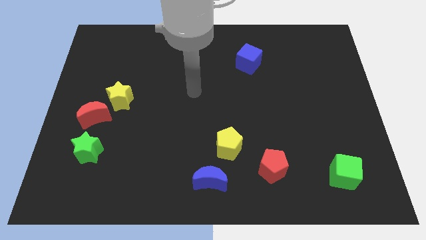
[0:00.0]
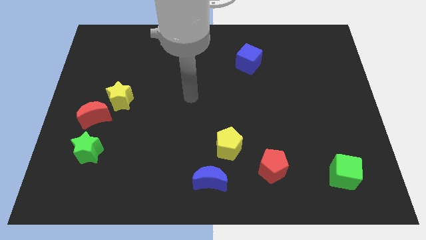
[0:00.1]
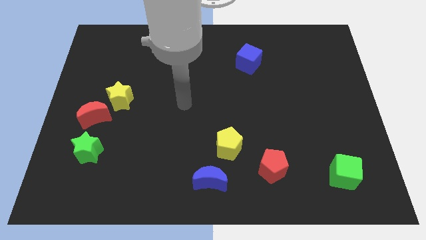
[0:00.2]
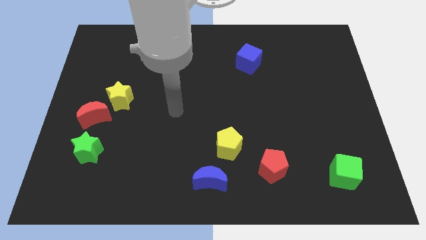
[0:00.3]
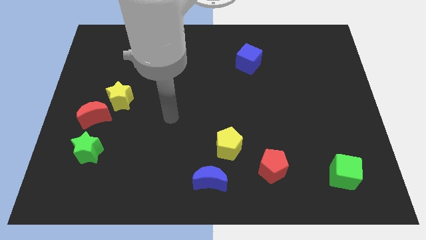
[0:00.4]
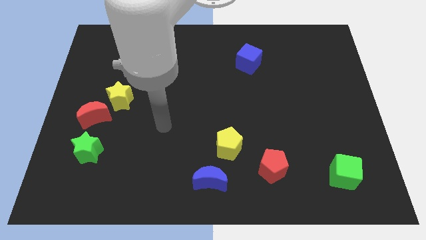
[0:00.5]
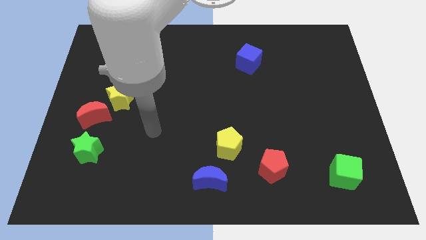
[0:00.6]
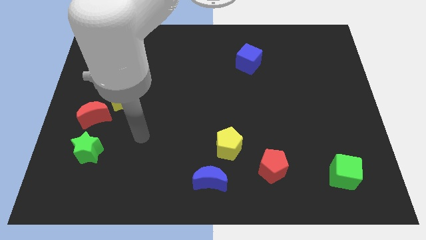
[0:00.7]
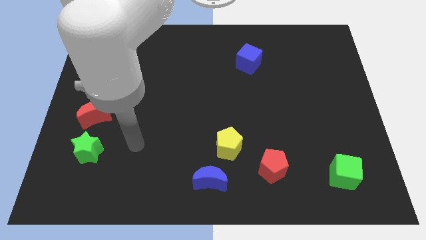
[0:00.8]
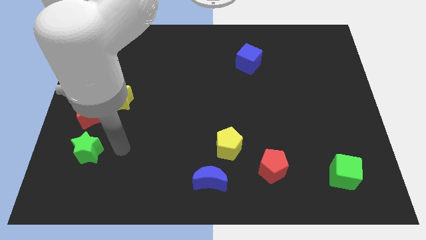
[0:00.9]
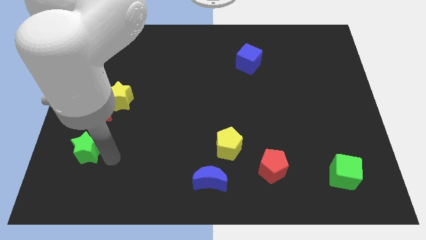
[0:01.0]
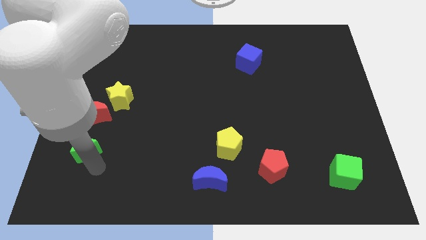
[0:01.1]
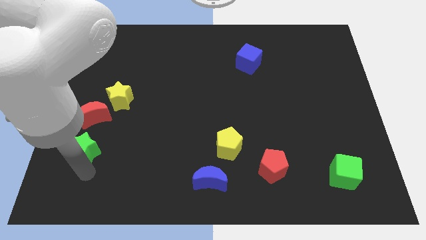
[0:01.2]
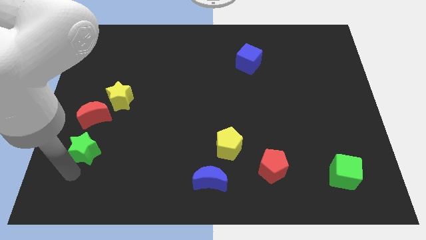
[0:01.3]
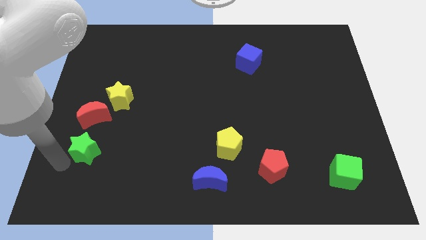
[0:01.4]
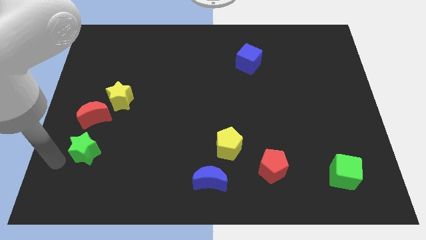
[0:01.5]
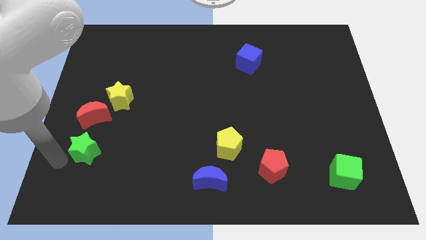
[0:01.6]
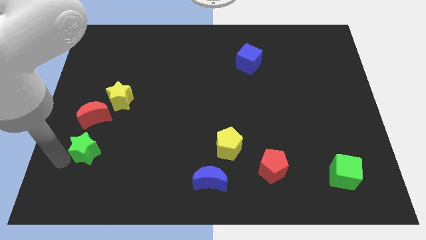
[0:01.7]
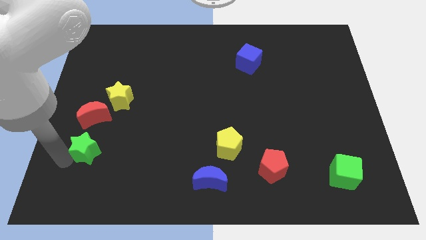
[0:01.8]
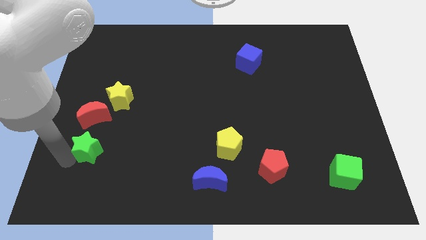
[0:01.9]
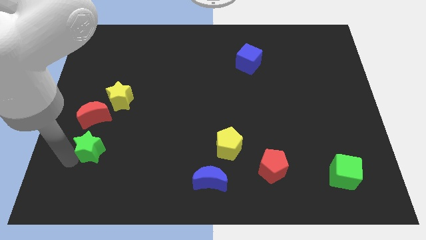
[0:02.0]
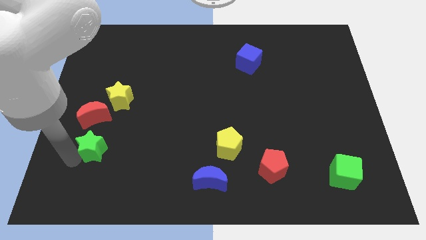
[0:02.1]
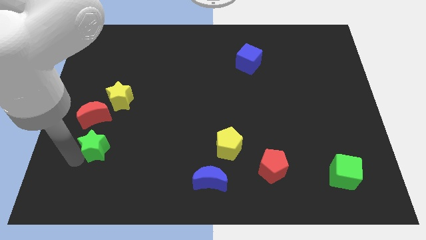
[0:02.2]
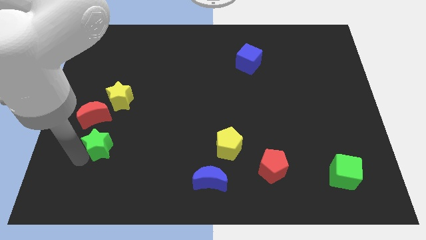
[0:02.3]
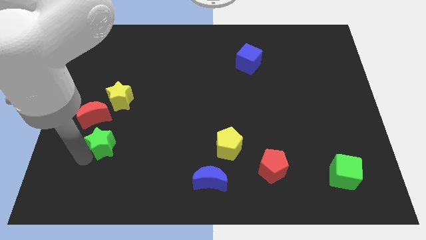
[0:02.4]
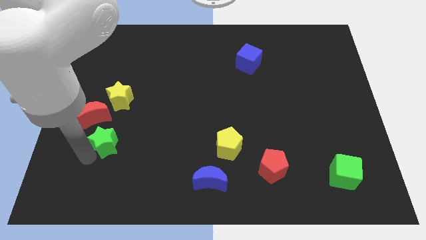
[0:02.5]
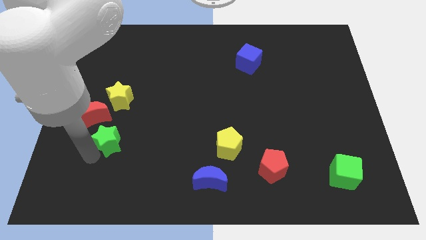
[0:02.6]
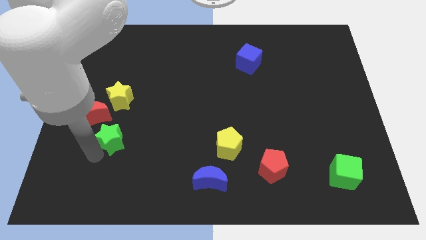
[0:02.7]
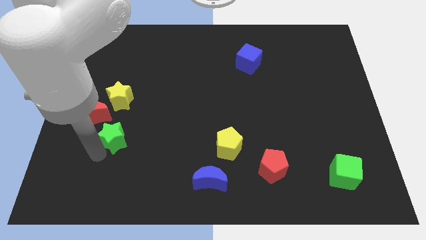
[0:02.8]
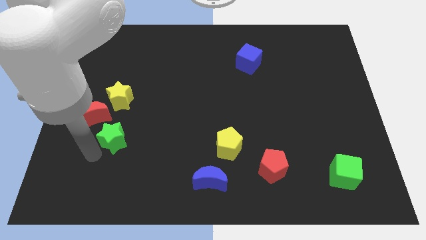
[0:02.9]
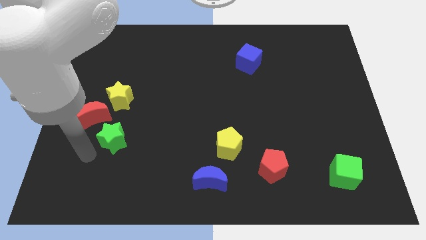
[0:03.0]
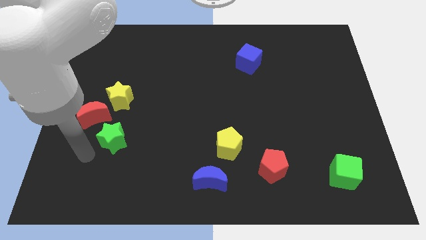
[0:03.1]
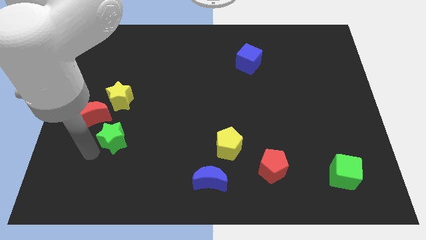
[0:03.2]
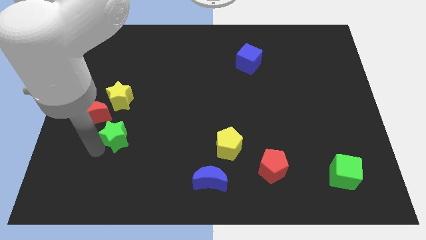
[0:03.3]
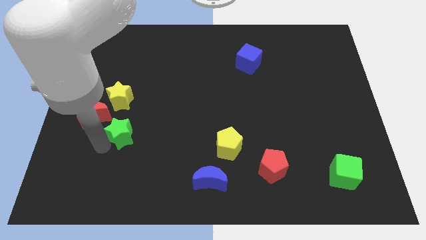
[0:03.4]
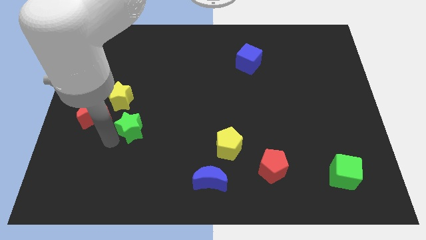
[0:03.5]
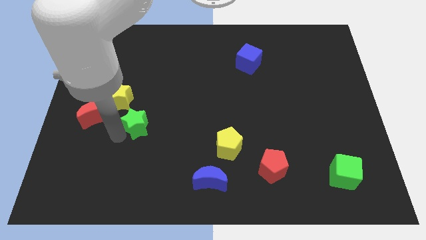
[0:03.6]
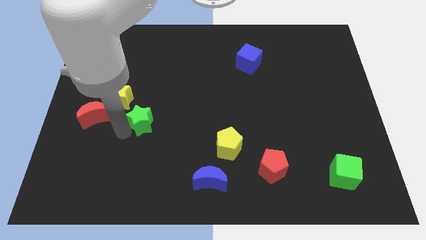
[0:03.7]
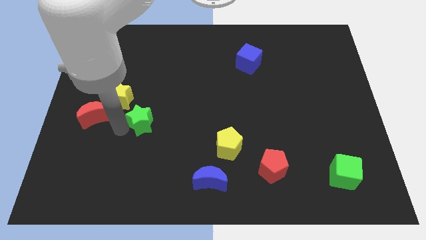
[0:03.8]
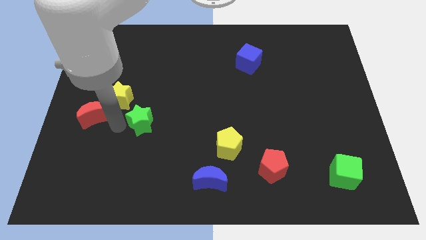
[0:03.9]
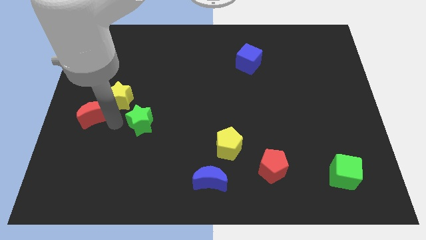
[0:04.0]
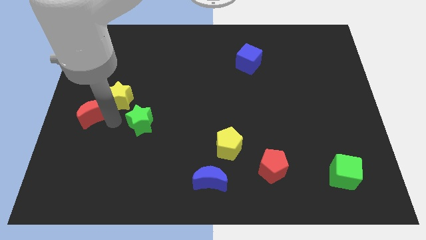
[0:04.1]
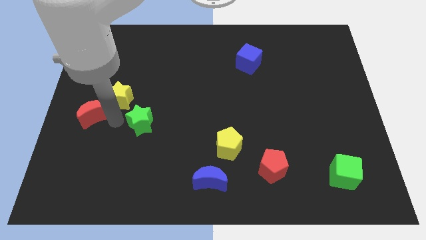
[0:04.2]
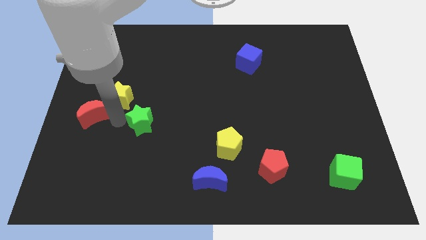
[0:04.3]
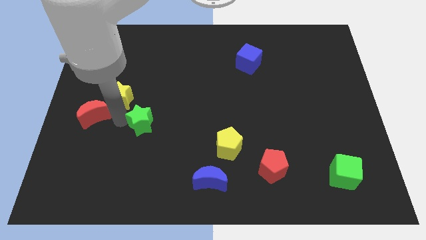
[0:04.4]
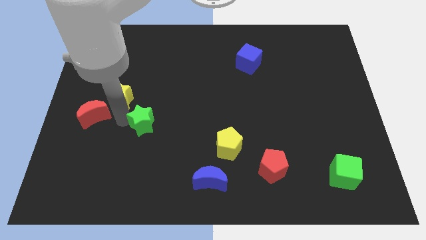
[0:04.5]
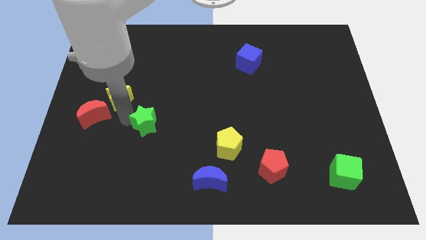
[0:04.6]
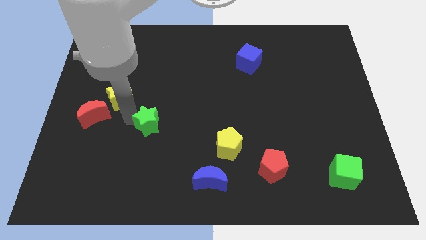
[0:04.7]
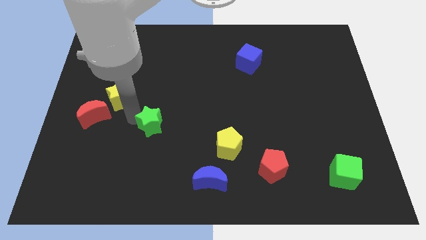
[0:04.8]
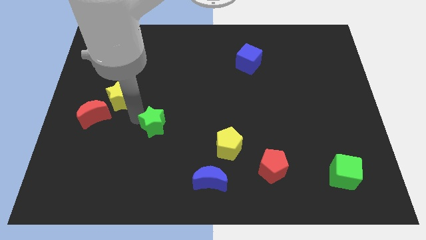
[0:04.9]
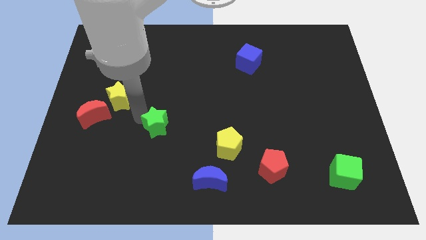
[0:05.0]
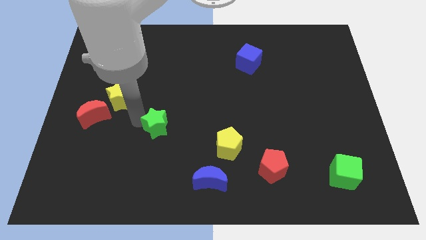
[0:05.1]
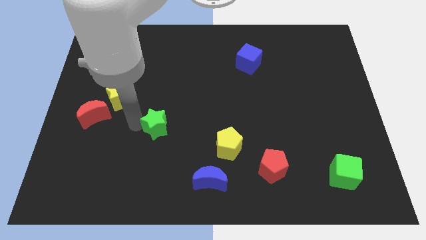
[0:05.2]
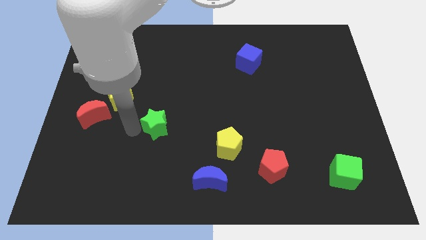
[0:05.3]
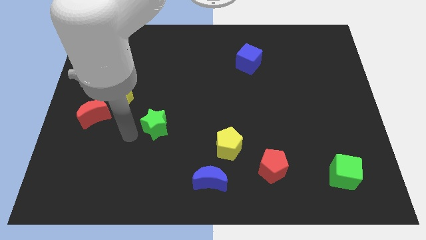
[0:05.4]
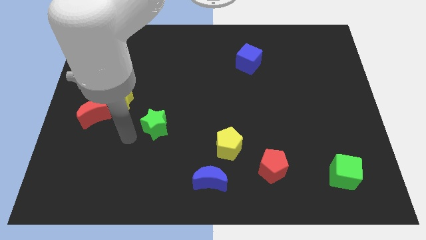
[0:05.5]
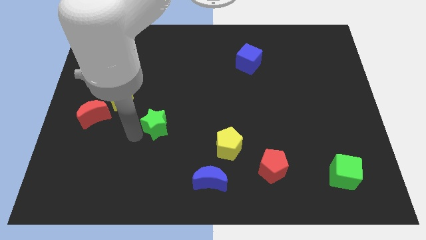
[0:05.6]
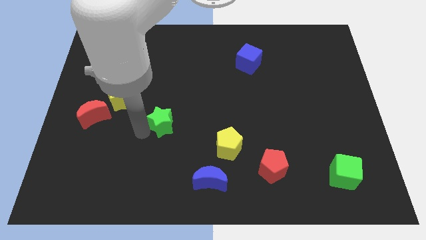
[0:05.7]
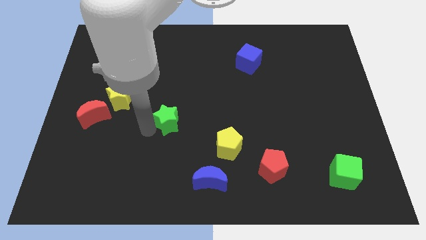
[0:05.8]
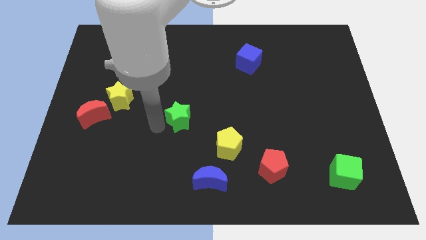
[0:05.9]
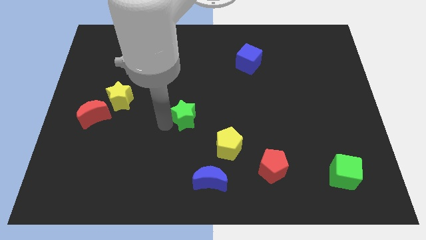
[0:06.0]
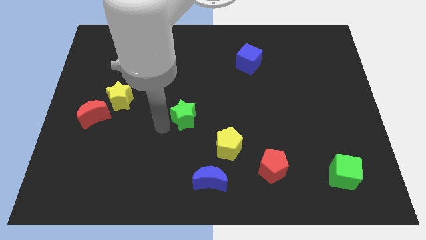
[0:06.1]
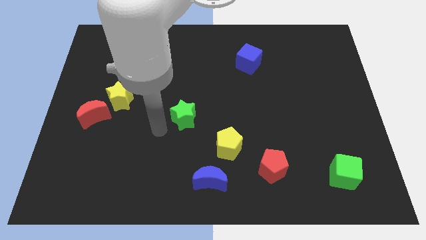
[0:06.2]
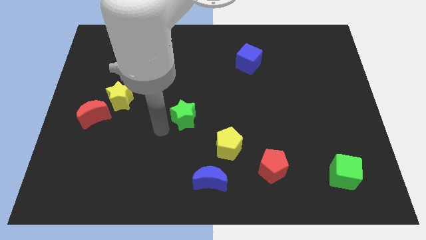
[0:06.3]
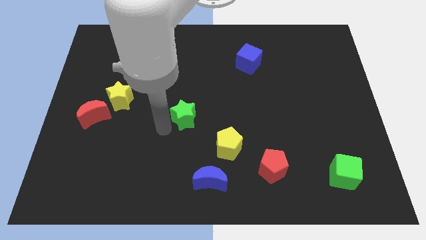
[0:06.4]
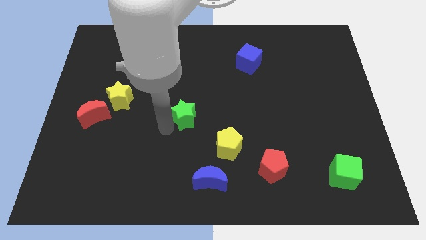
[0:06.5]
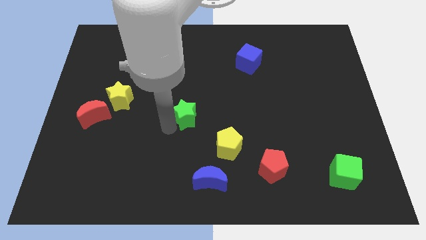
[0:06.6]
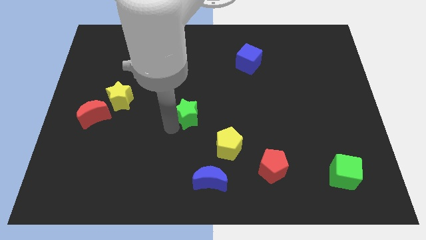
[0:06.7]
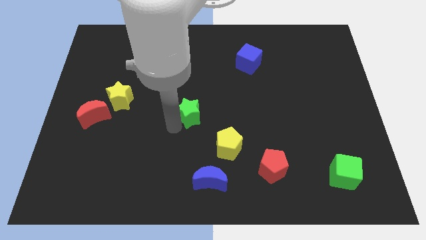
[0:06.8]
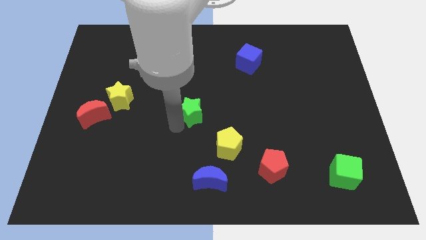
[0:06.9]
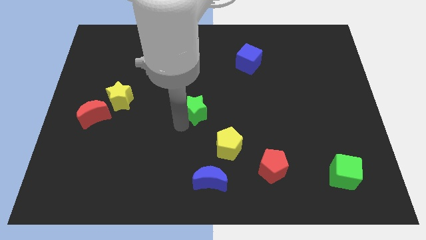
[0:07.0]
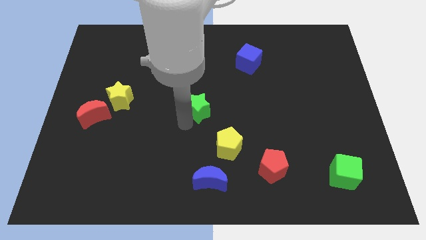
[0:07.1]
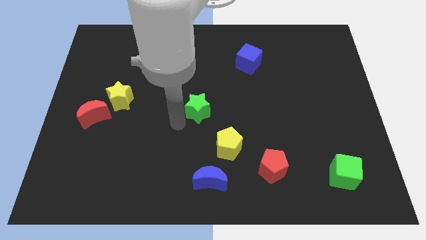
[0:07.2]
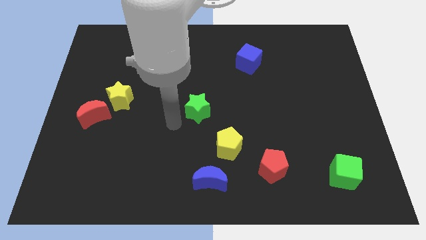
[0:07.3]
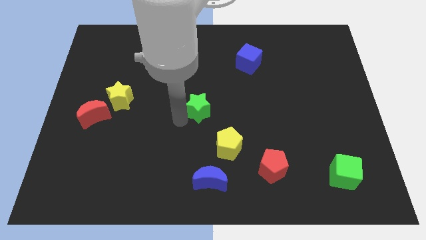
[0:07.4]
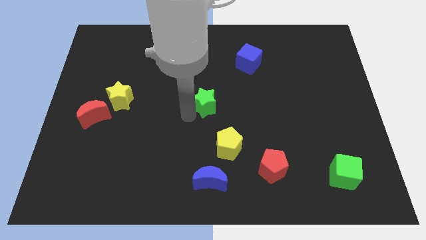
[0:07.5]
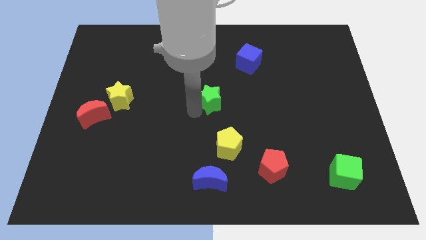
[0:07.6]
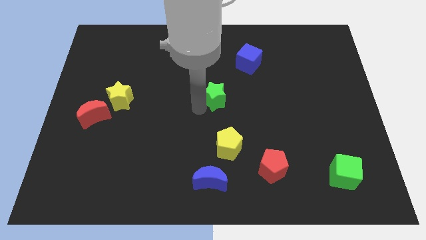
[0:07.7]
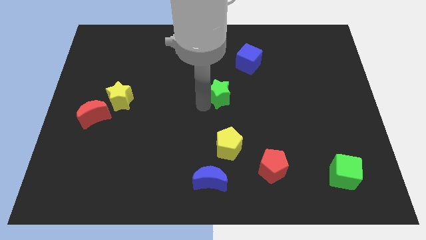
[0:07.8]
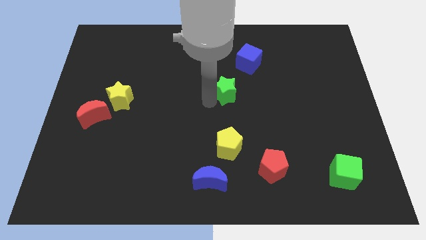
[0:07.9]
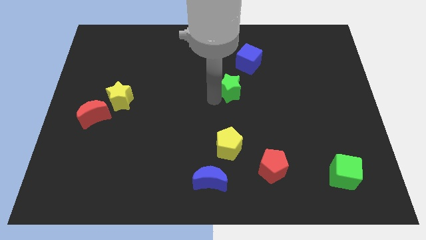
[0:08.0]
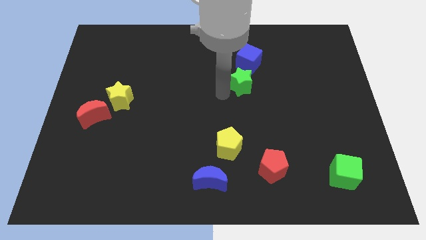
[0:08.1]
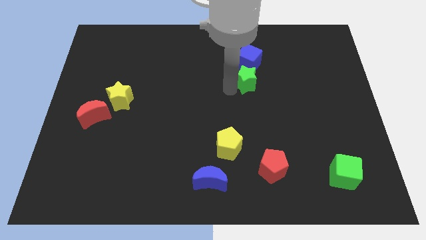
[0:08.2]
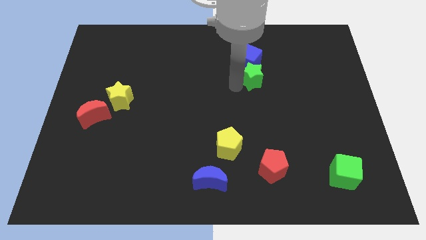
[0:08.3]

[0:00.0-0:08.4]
put the green star to the bottom right side of the blue cube
